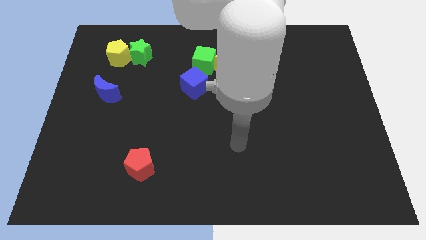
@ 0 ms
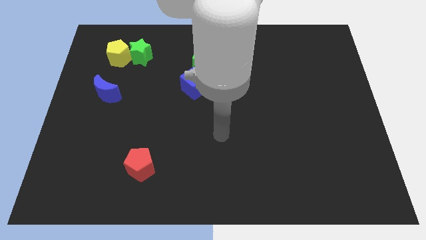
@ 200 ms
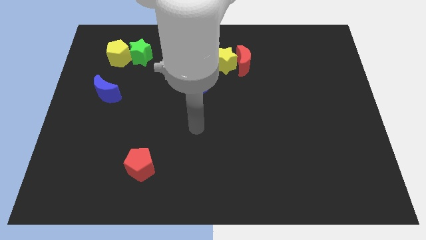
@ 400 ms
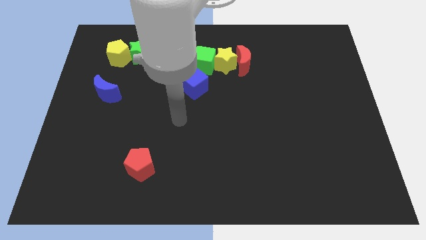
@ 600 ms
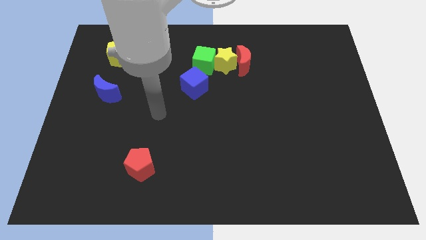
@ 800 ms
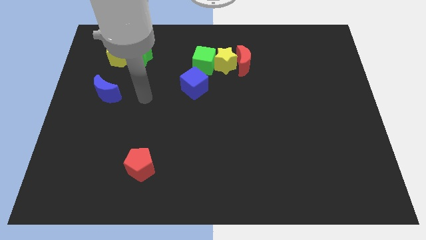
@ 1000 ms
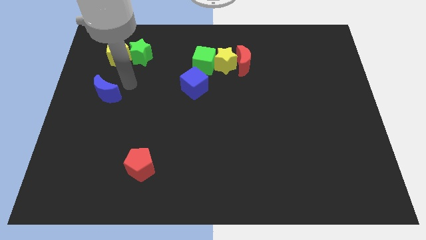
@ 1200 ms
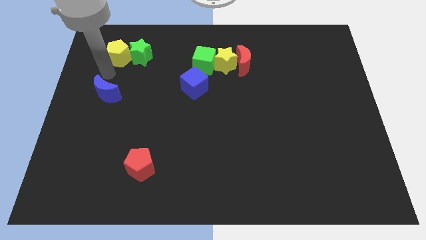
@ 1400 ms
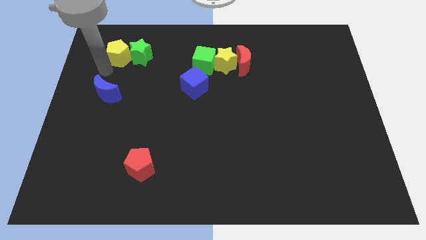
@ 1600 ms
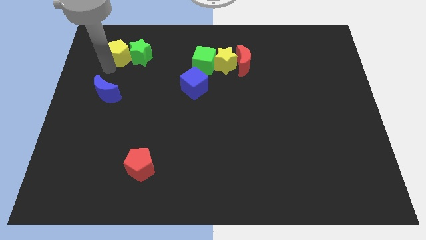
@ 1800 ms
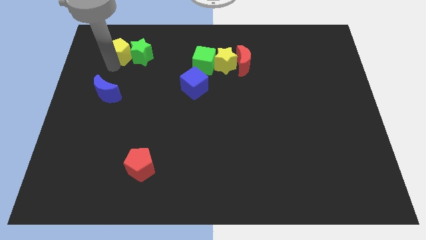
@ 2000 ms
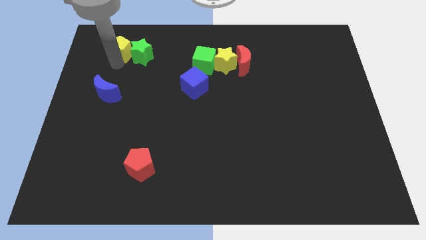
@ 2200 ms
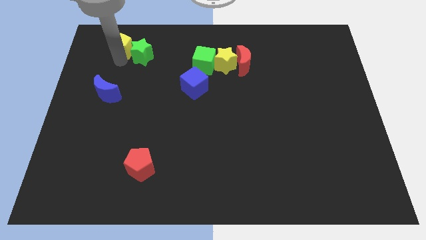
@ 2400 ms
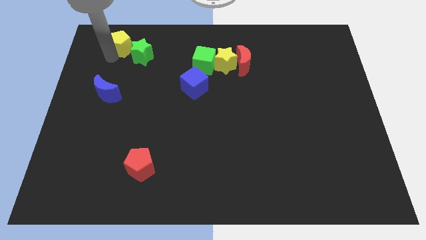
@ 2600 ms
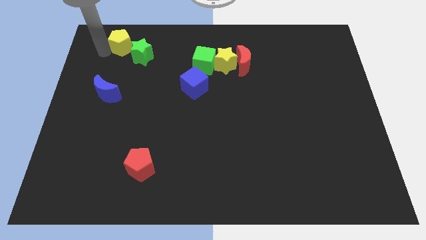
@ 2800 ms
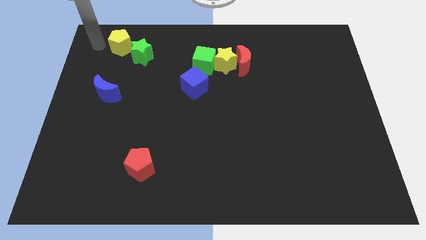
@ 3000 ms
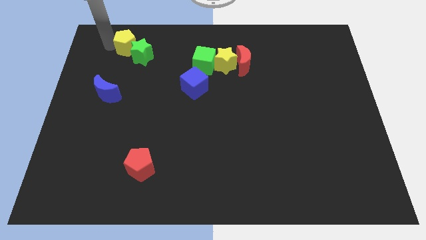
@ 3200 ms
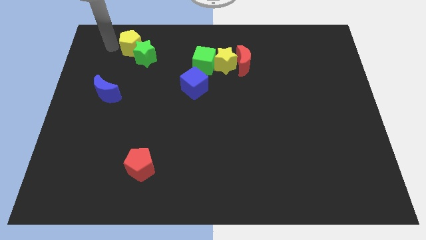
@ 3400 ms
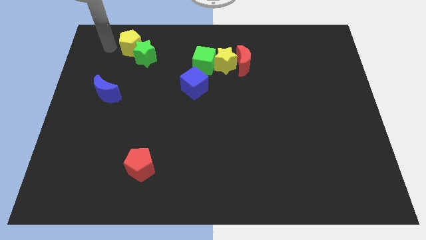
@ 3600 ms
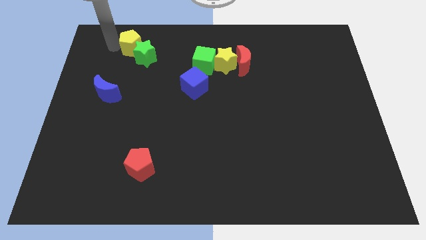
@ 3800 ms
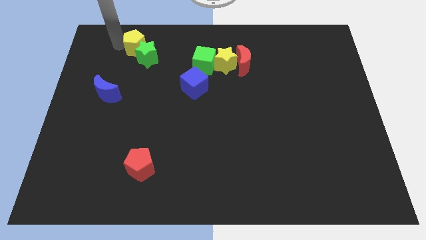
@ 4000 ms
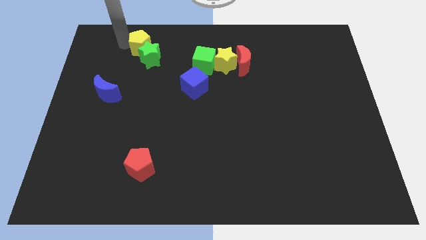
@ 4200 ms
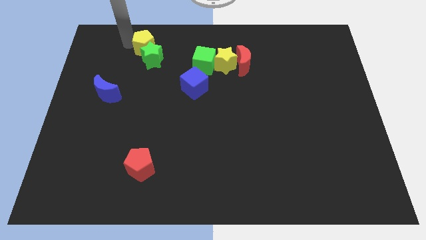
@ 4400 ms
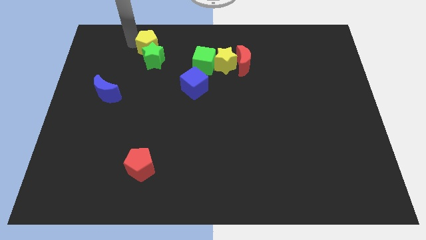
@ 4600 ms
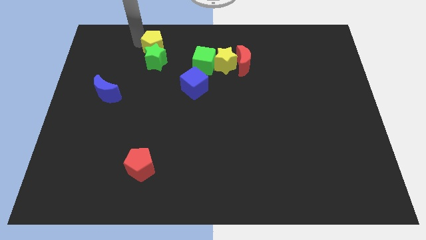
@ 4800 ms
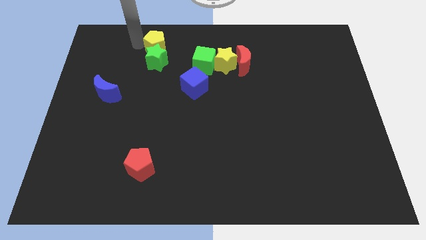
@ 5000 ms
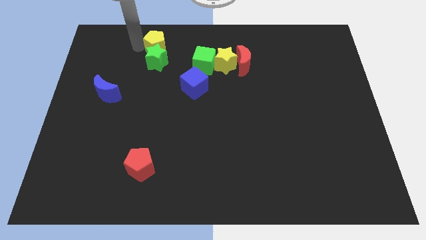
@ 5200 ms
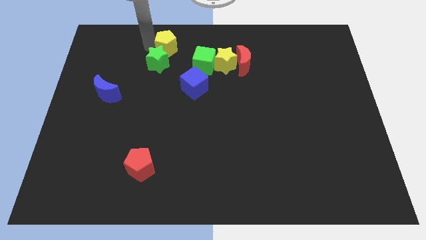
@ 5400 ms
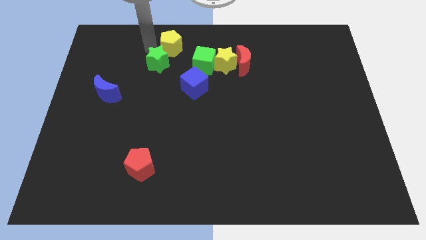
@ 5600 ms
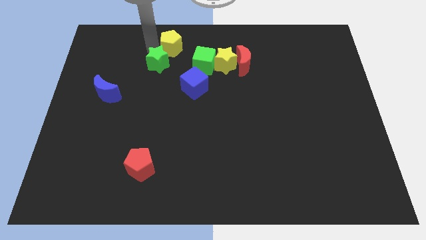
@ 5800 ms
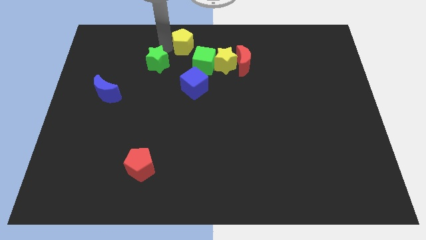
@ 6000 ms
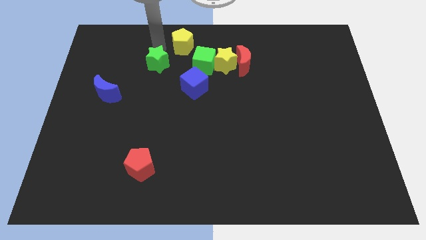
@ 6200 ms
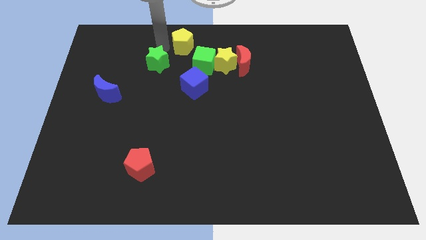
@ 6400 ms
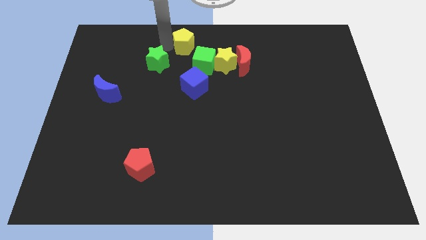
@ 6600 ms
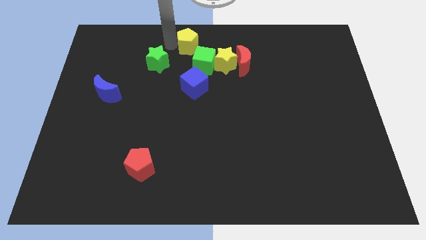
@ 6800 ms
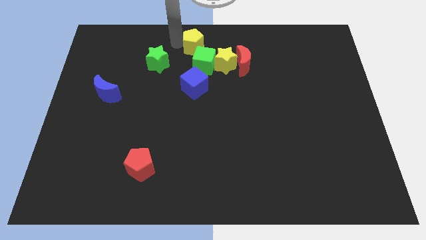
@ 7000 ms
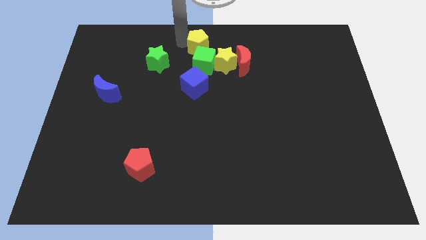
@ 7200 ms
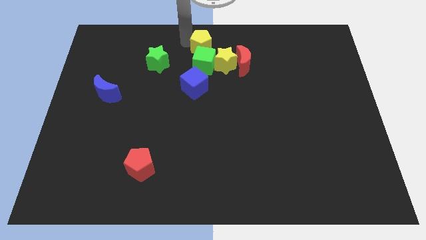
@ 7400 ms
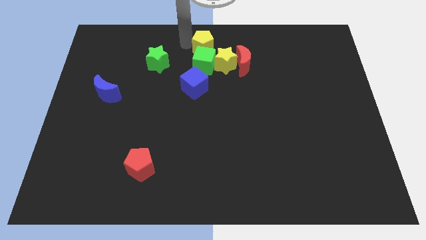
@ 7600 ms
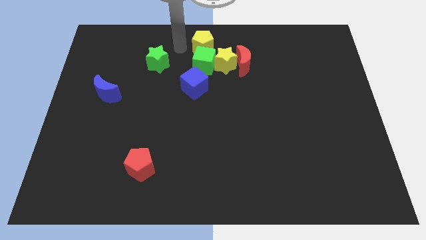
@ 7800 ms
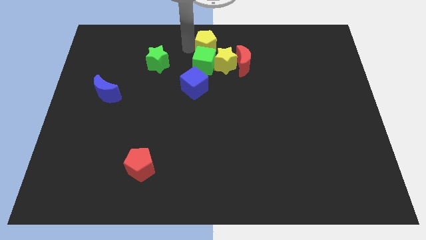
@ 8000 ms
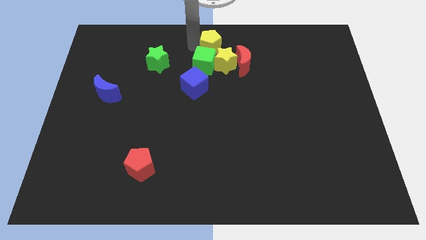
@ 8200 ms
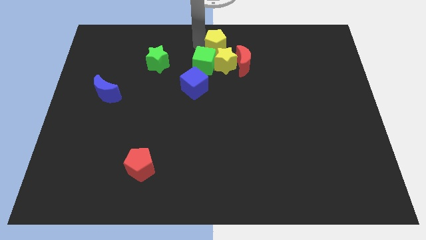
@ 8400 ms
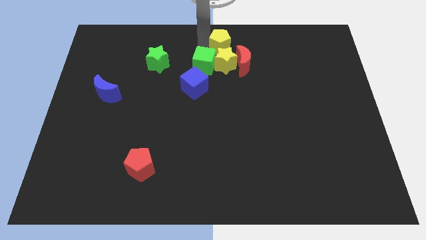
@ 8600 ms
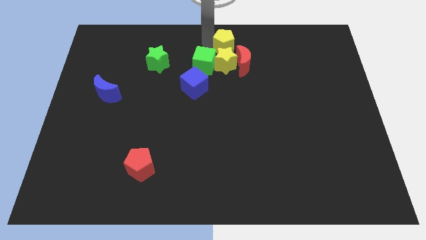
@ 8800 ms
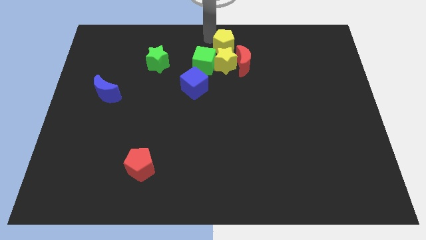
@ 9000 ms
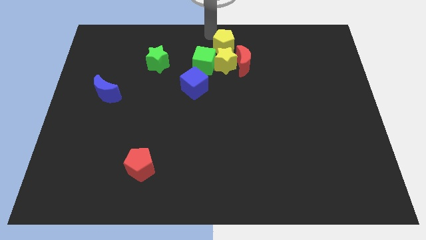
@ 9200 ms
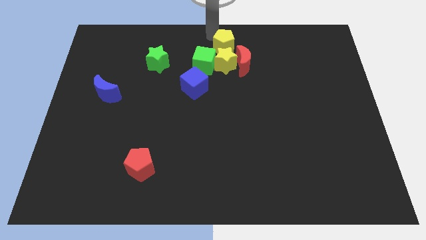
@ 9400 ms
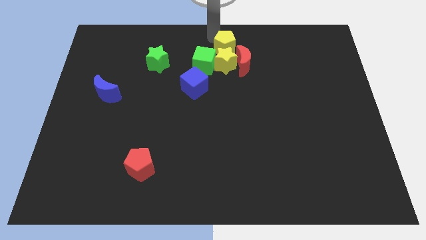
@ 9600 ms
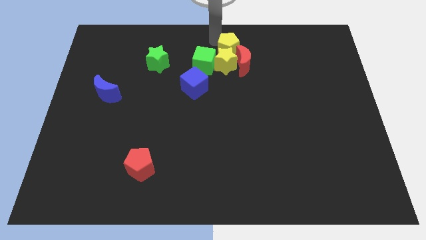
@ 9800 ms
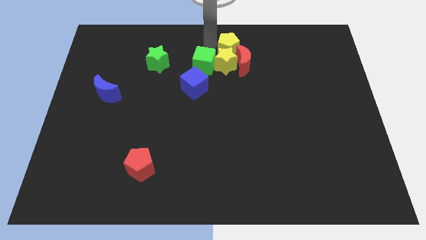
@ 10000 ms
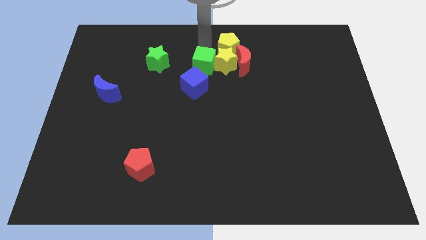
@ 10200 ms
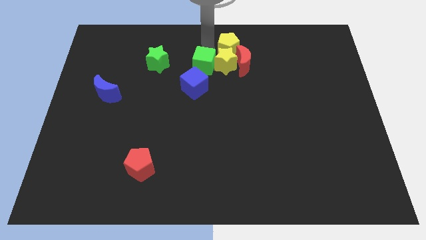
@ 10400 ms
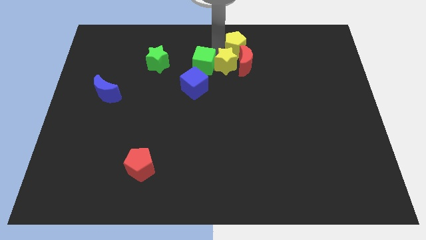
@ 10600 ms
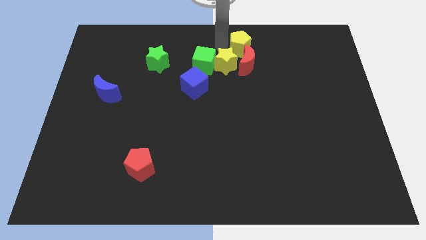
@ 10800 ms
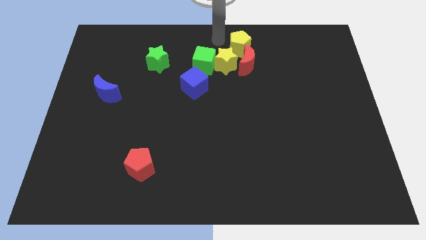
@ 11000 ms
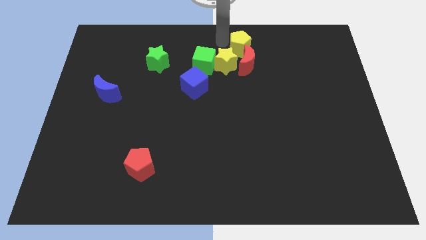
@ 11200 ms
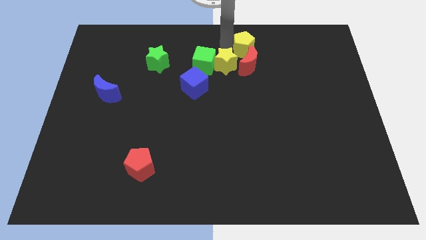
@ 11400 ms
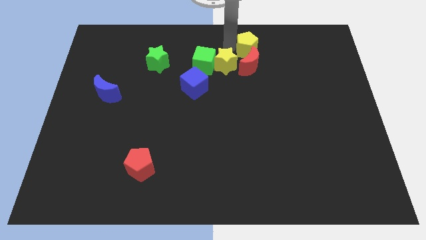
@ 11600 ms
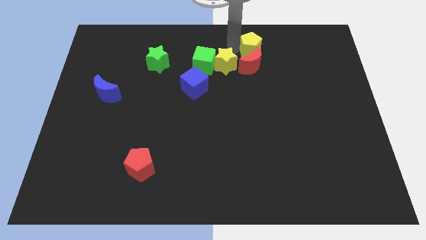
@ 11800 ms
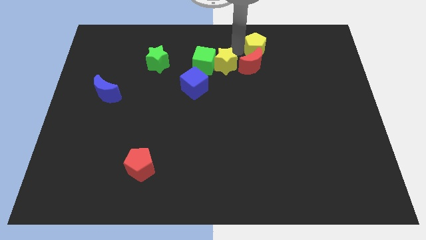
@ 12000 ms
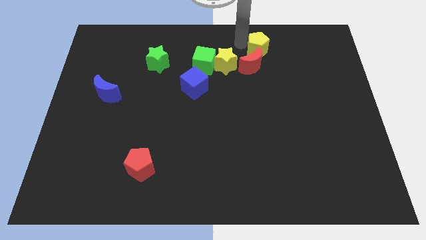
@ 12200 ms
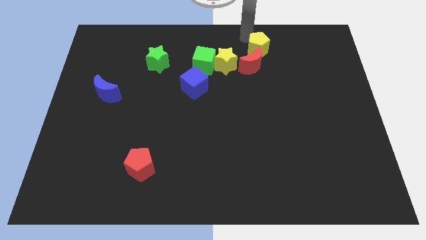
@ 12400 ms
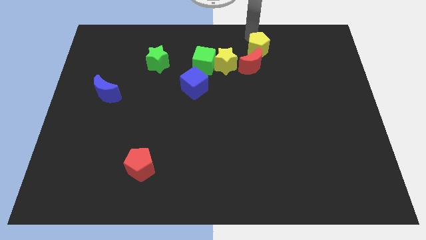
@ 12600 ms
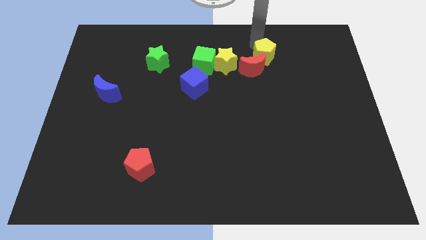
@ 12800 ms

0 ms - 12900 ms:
put the yellow pentagon right of the yellow star

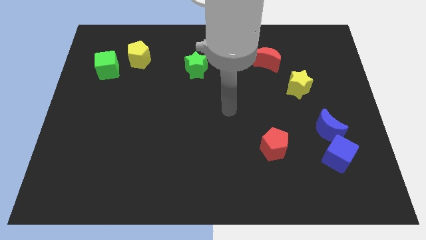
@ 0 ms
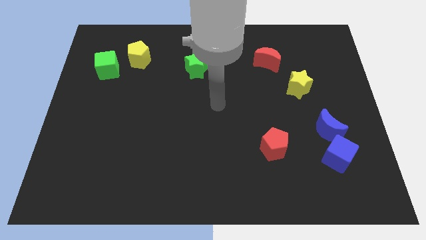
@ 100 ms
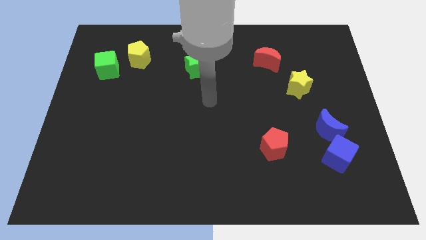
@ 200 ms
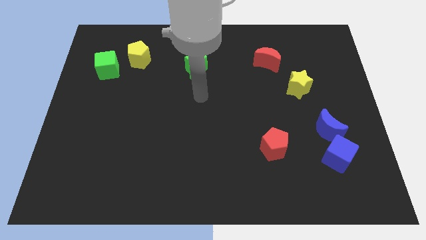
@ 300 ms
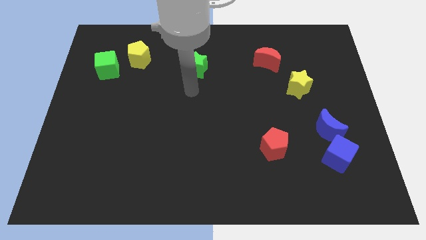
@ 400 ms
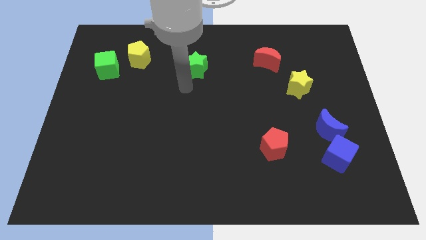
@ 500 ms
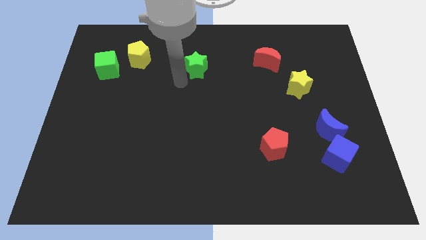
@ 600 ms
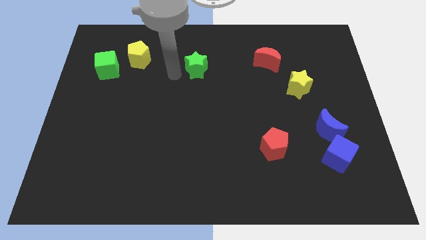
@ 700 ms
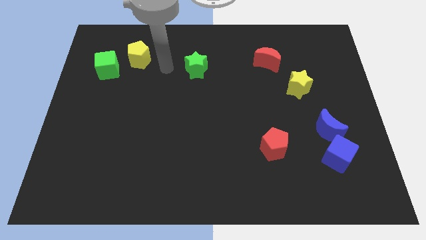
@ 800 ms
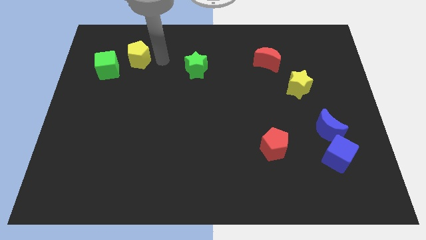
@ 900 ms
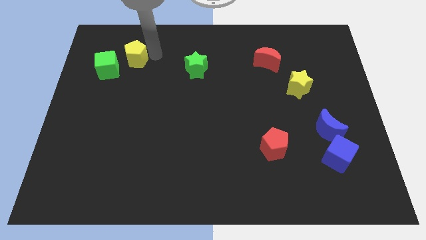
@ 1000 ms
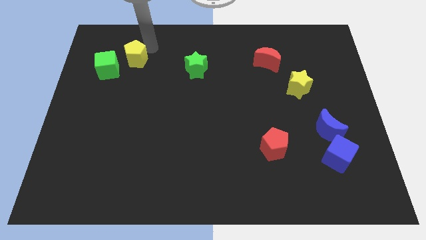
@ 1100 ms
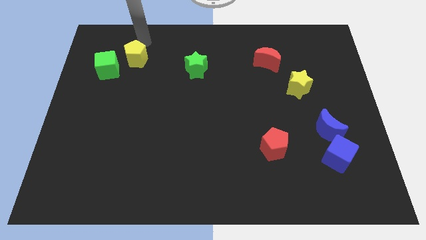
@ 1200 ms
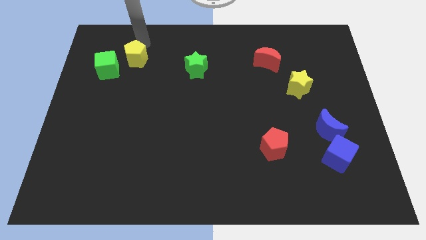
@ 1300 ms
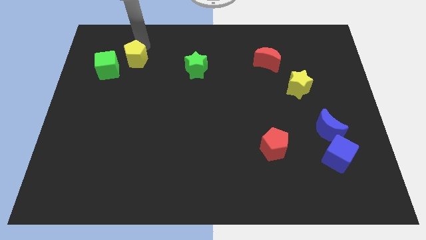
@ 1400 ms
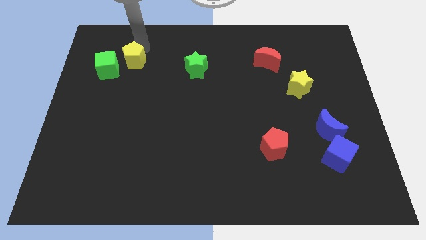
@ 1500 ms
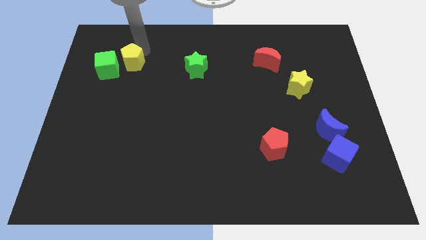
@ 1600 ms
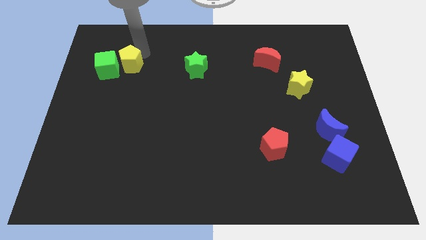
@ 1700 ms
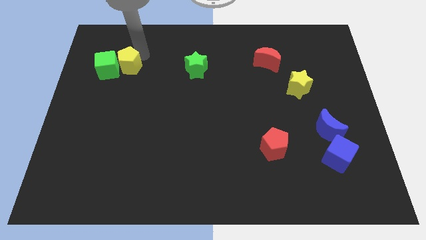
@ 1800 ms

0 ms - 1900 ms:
push the yellow pentagon to the bottom right of the green cube
